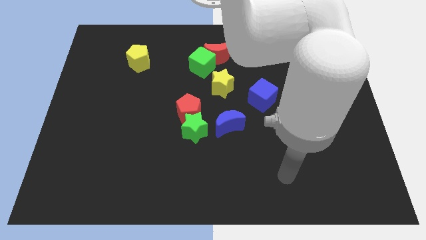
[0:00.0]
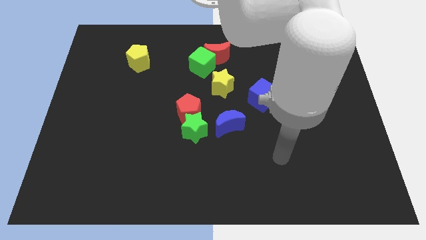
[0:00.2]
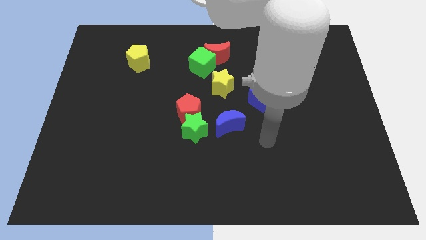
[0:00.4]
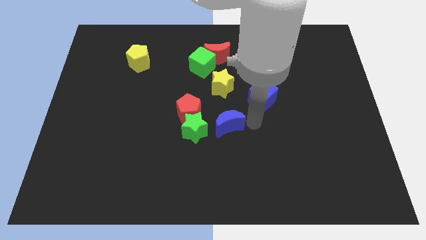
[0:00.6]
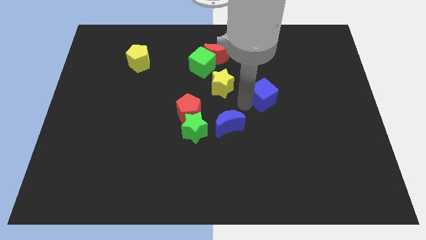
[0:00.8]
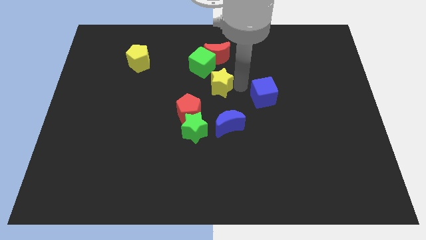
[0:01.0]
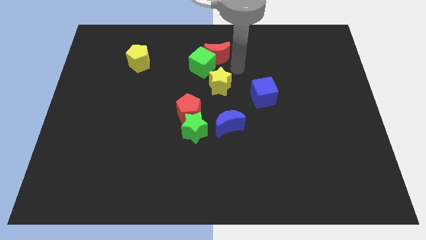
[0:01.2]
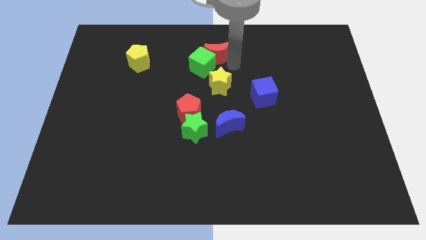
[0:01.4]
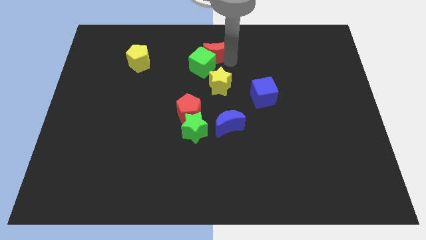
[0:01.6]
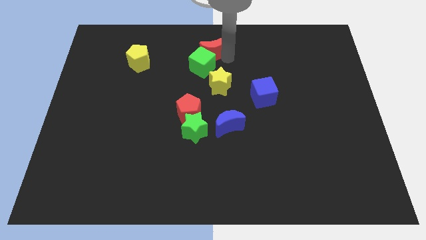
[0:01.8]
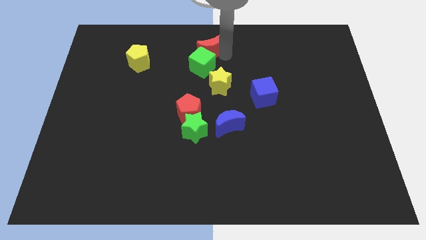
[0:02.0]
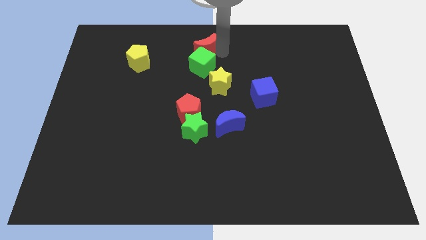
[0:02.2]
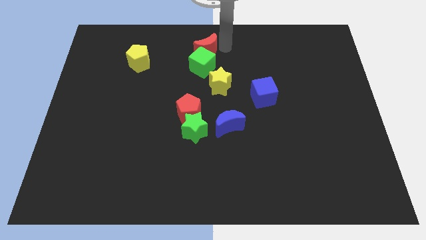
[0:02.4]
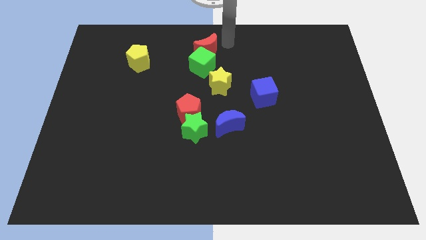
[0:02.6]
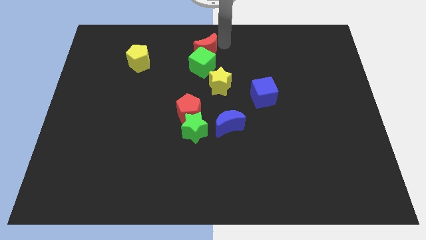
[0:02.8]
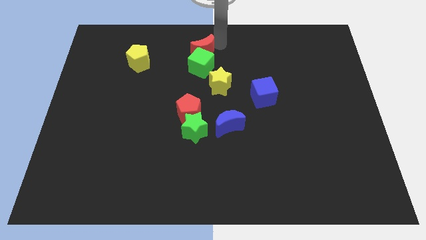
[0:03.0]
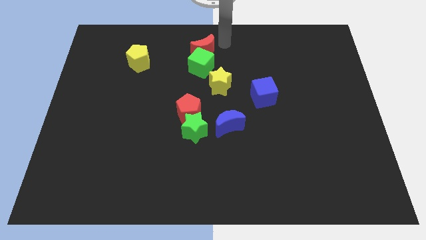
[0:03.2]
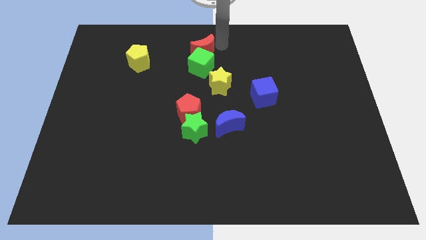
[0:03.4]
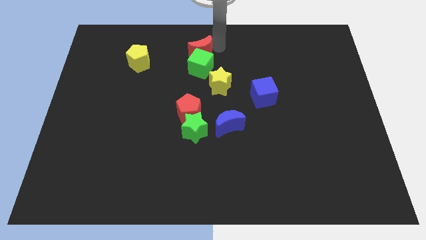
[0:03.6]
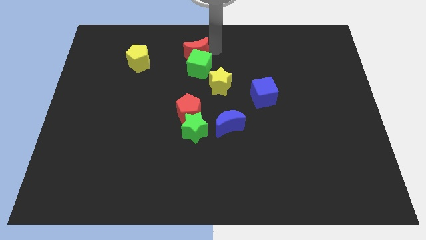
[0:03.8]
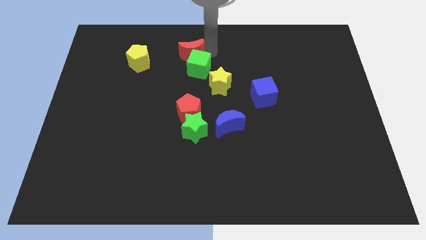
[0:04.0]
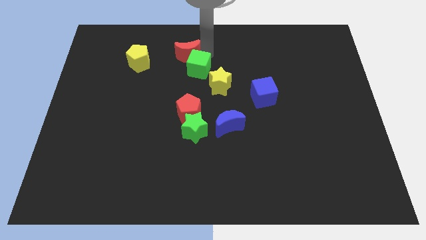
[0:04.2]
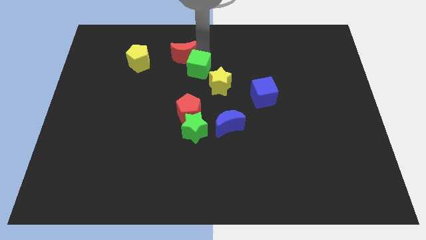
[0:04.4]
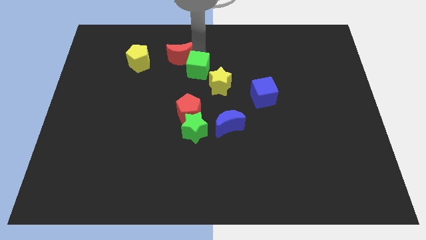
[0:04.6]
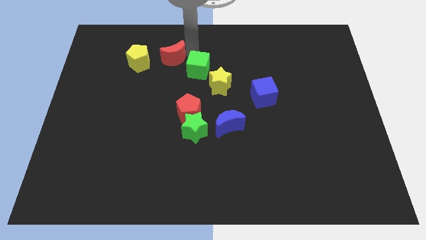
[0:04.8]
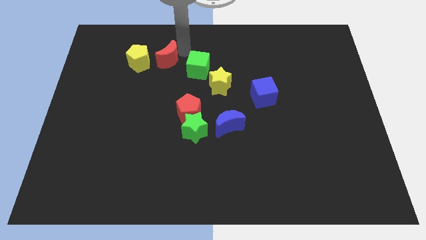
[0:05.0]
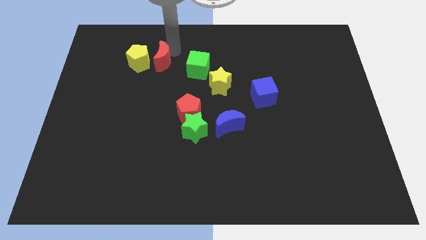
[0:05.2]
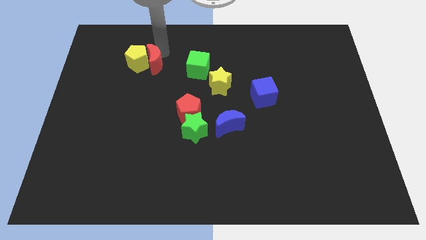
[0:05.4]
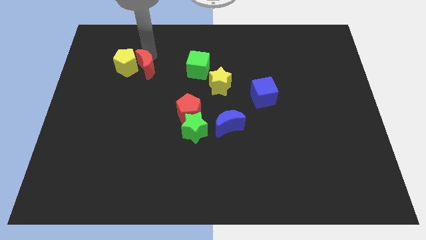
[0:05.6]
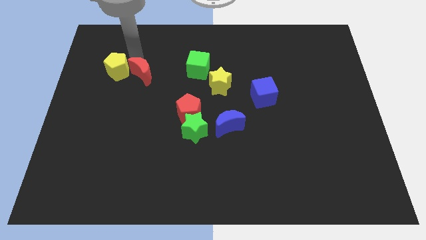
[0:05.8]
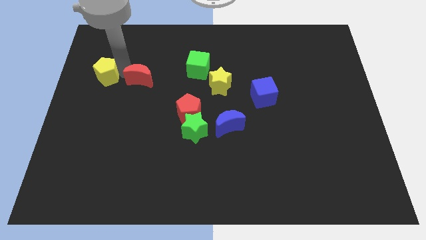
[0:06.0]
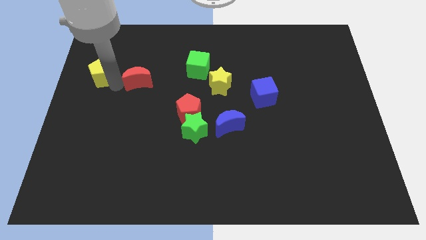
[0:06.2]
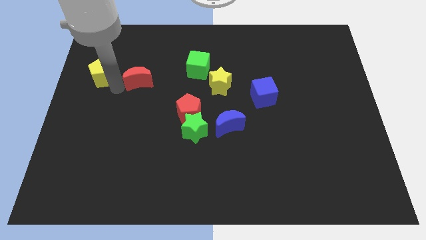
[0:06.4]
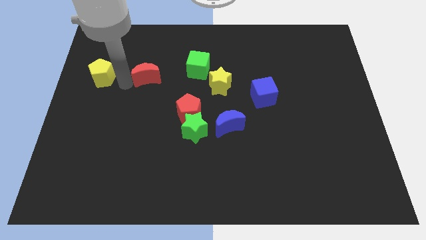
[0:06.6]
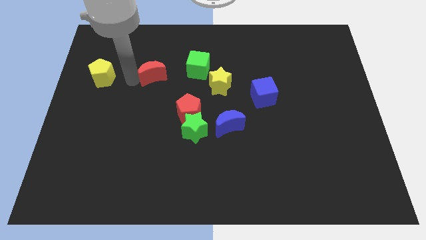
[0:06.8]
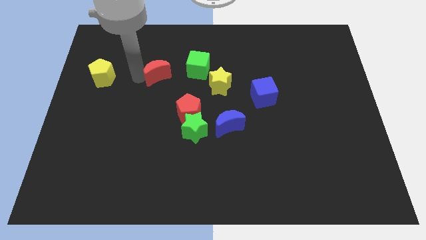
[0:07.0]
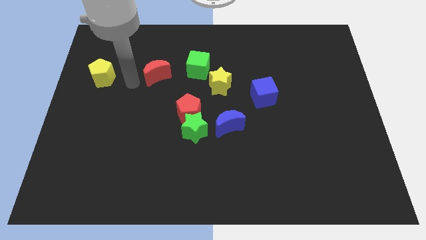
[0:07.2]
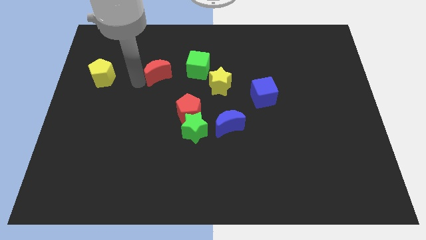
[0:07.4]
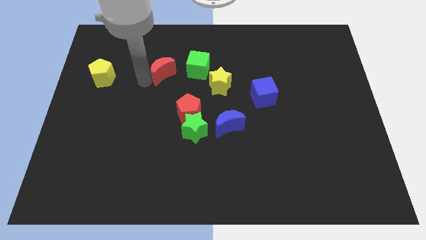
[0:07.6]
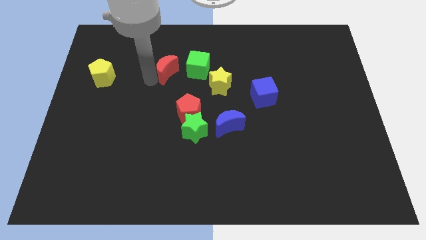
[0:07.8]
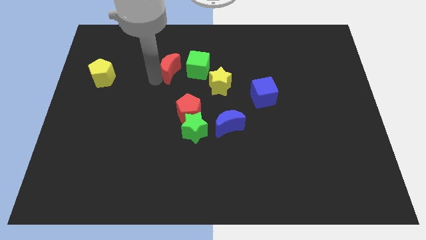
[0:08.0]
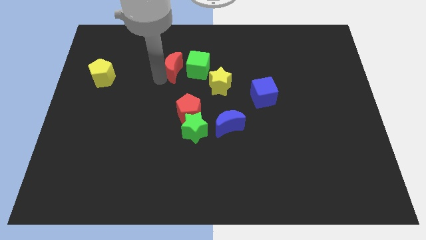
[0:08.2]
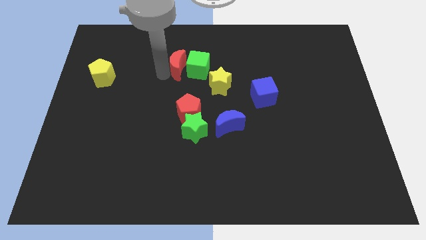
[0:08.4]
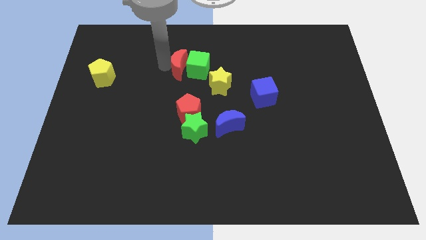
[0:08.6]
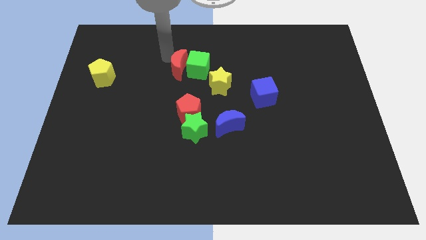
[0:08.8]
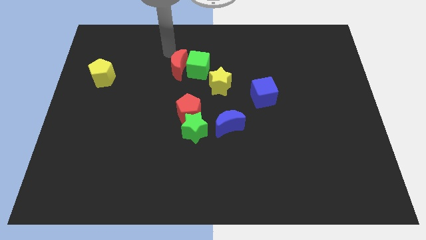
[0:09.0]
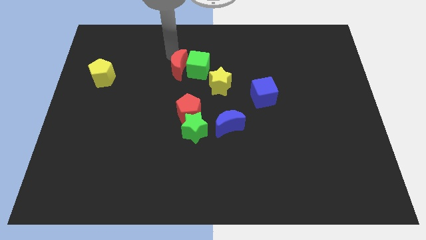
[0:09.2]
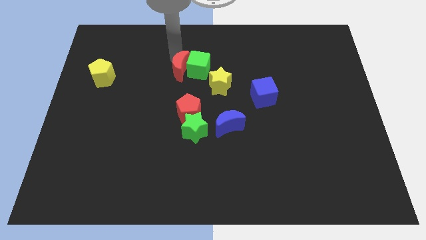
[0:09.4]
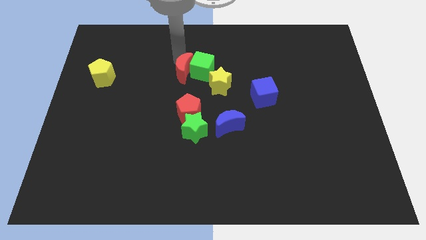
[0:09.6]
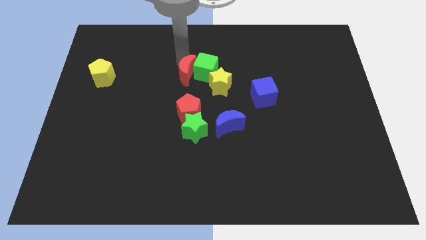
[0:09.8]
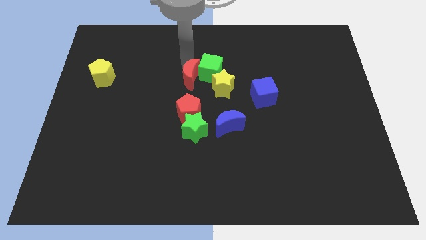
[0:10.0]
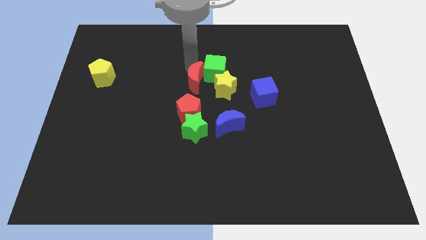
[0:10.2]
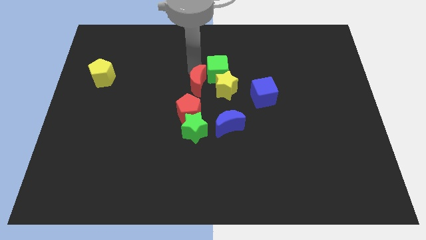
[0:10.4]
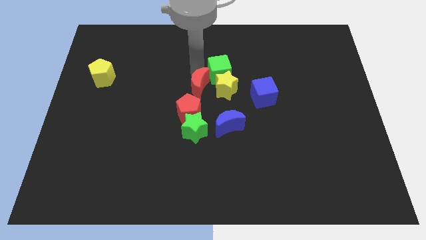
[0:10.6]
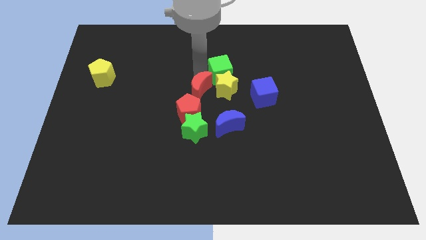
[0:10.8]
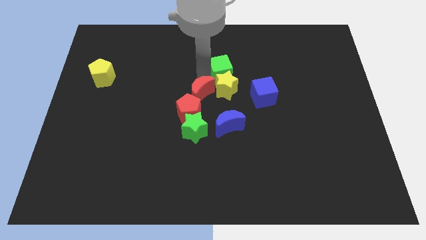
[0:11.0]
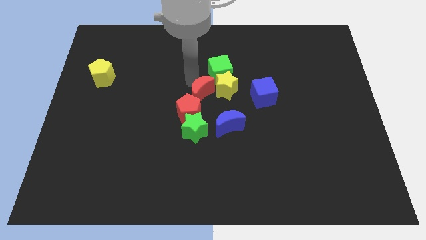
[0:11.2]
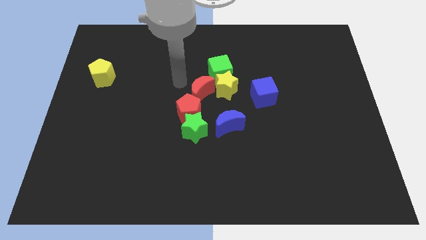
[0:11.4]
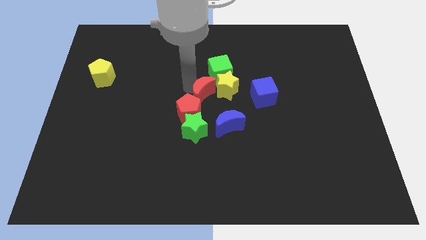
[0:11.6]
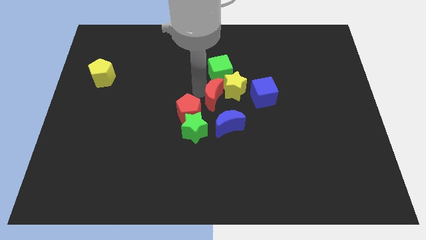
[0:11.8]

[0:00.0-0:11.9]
move the red moon diagonally up and to the right of the green star

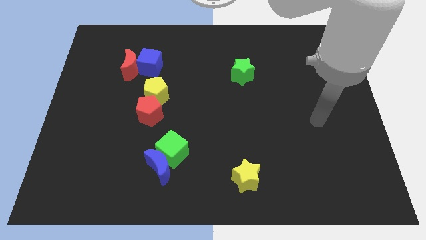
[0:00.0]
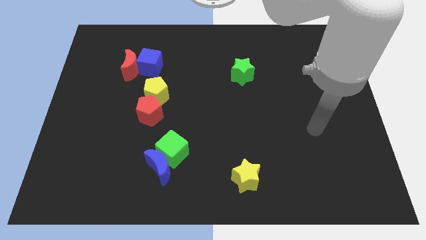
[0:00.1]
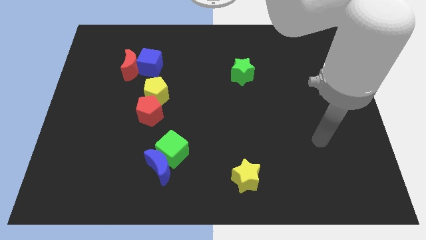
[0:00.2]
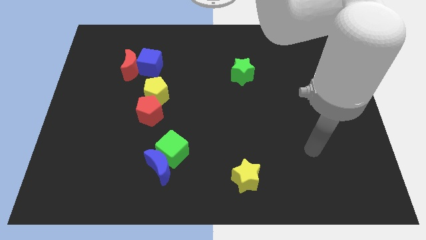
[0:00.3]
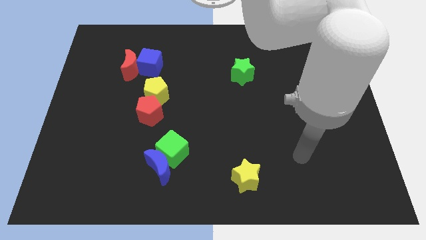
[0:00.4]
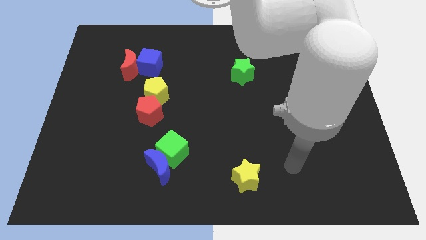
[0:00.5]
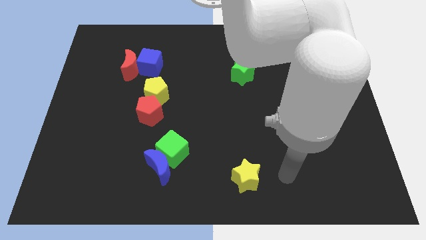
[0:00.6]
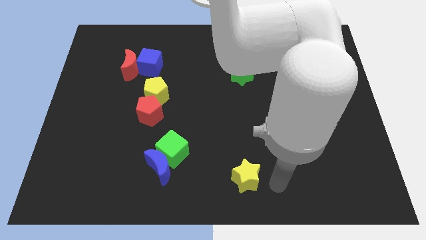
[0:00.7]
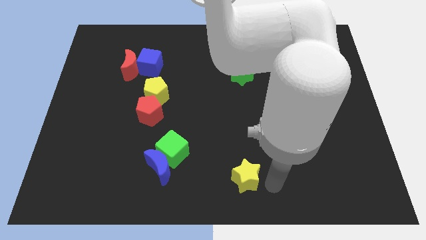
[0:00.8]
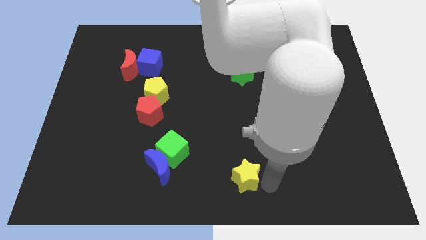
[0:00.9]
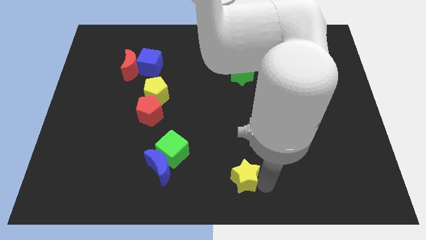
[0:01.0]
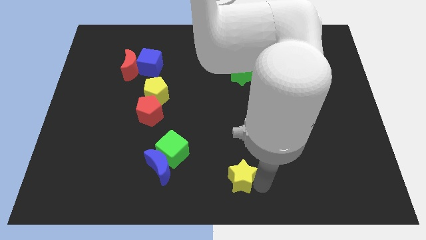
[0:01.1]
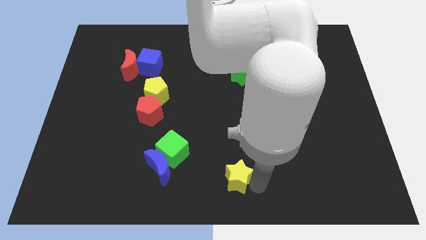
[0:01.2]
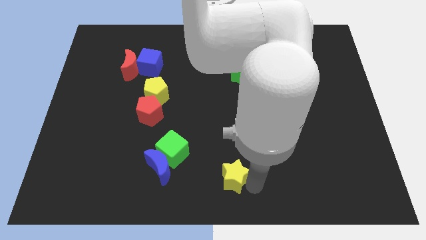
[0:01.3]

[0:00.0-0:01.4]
move the yellow star to the right side of the blue moon
